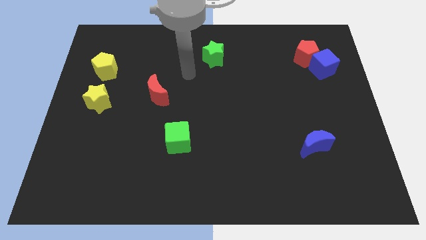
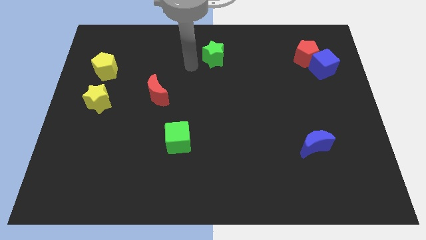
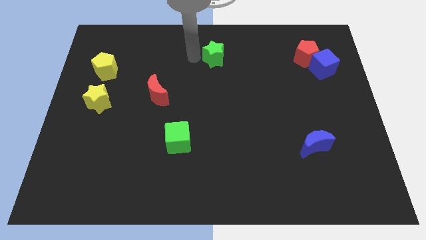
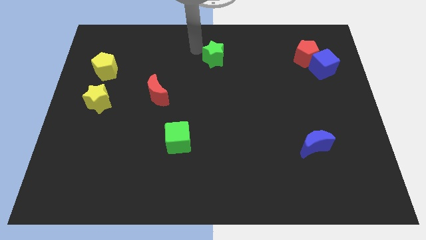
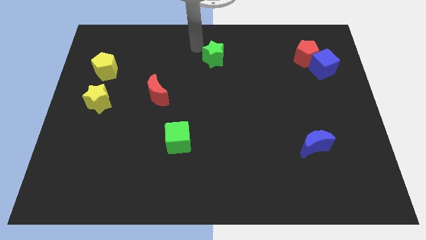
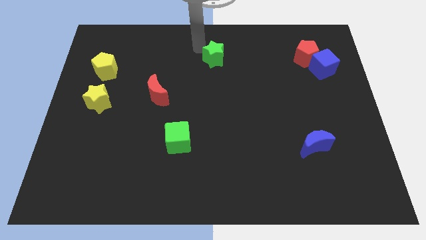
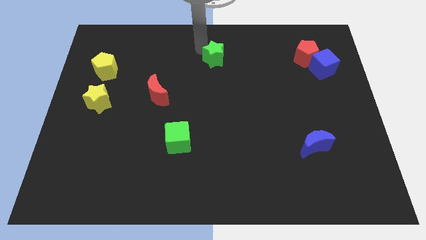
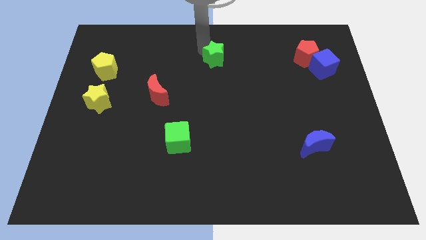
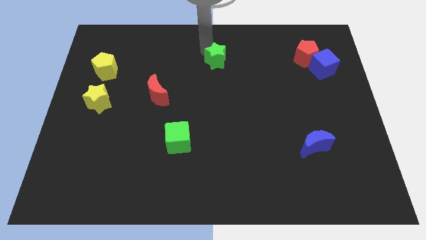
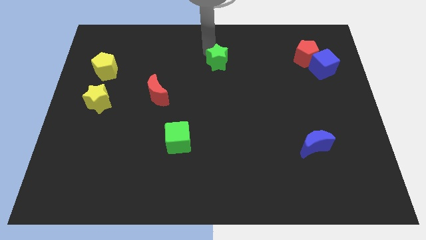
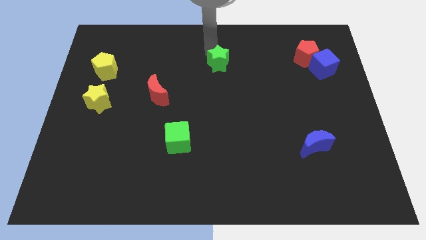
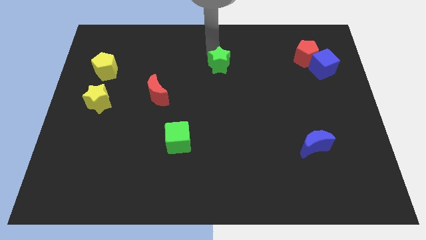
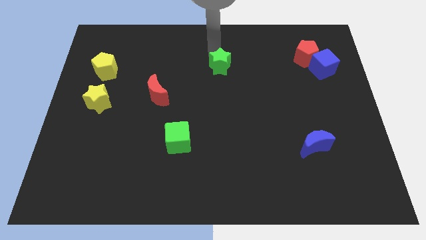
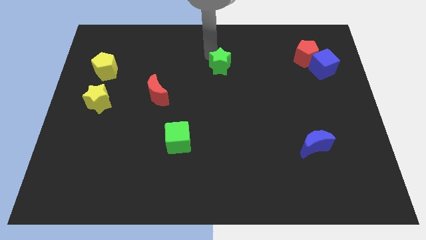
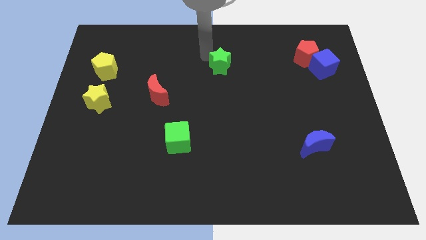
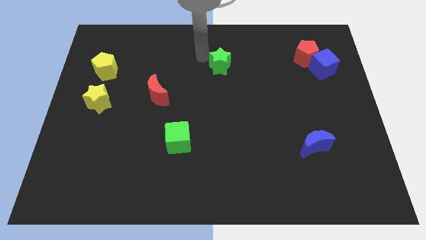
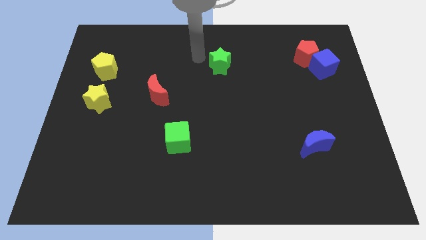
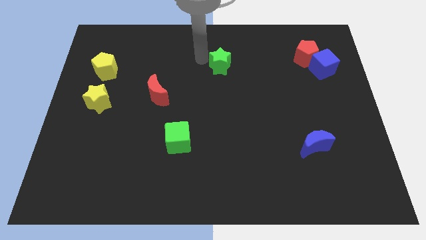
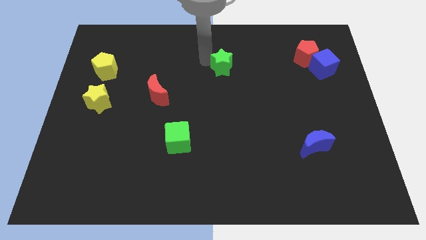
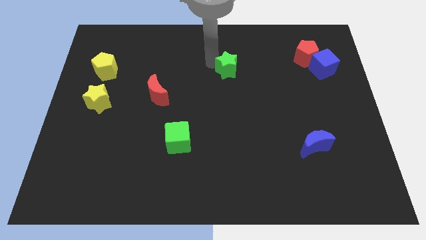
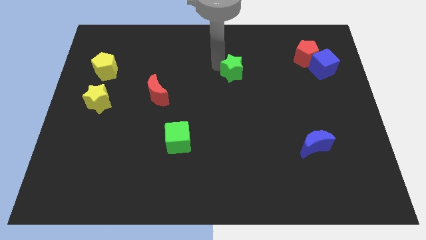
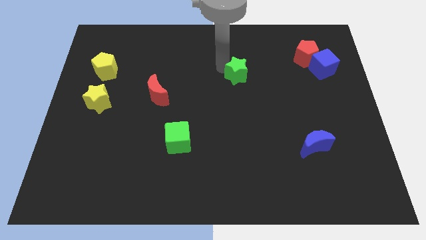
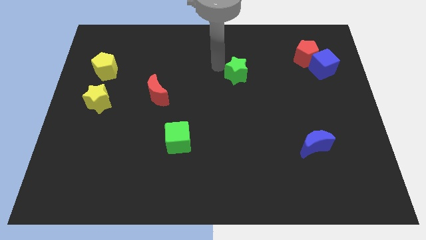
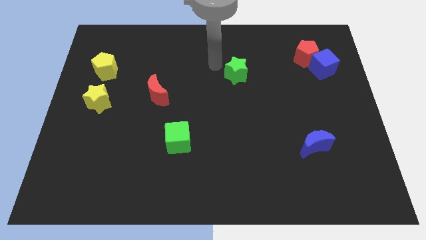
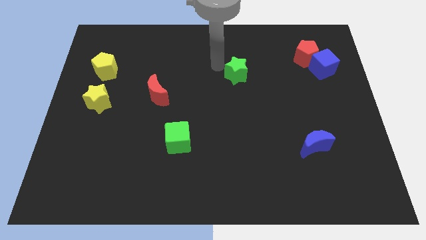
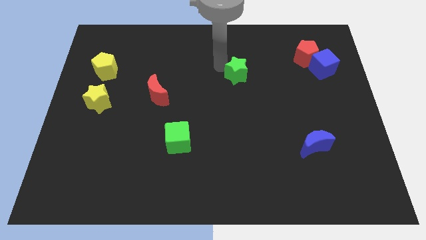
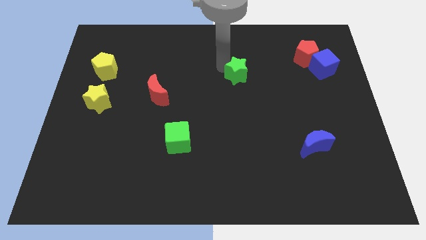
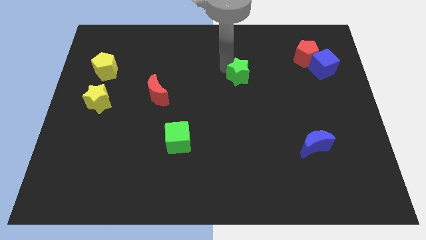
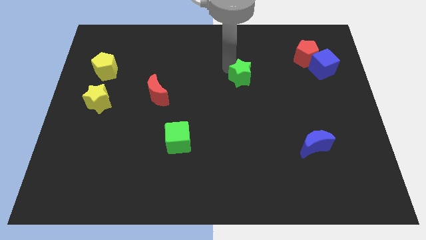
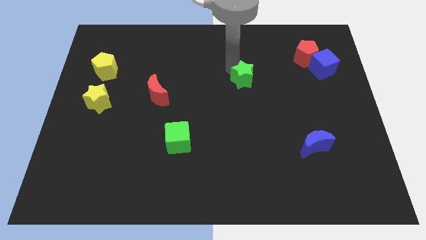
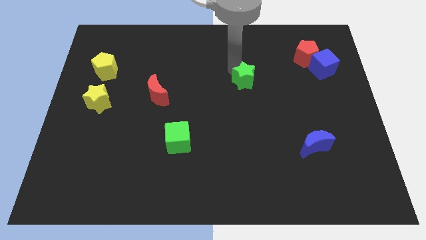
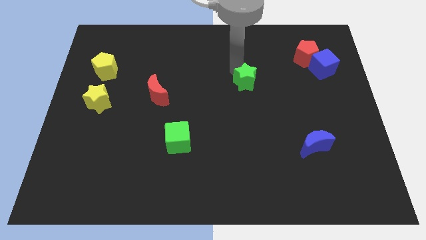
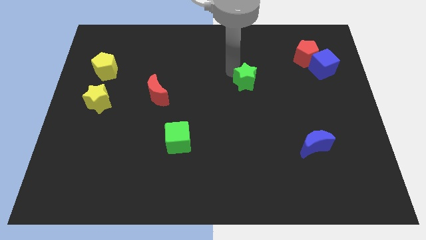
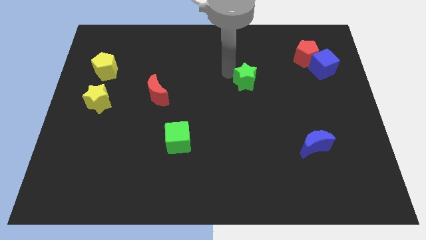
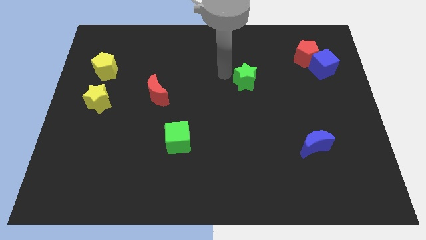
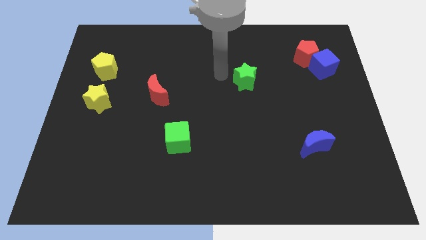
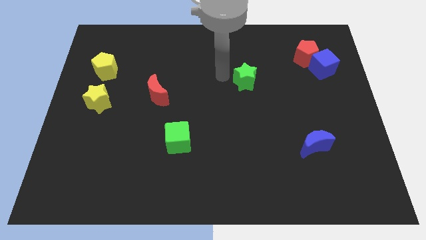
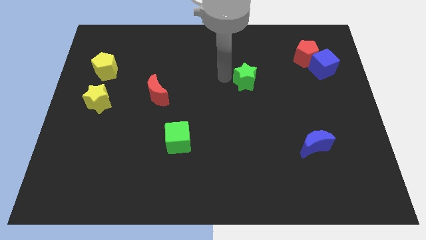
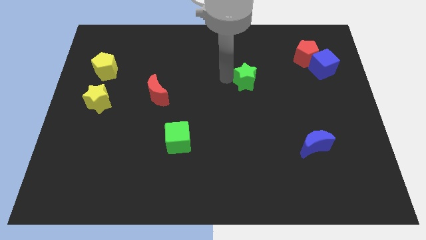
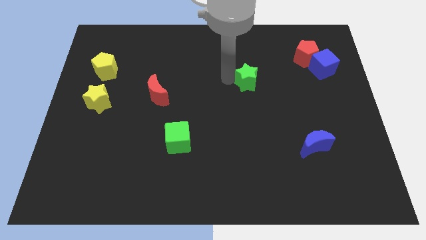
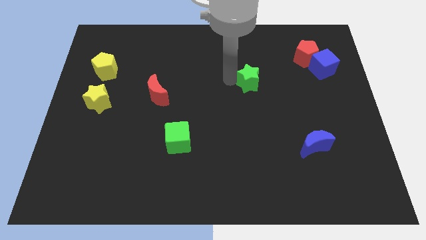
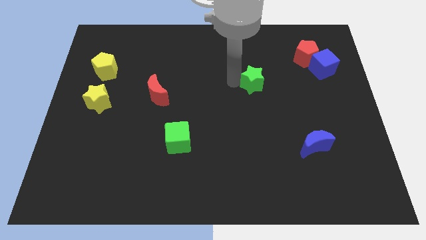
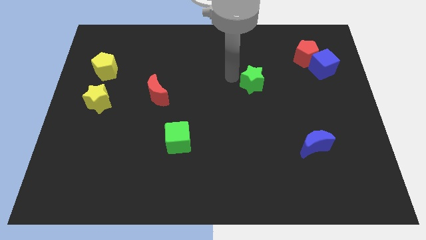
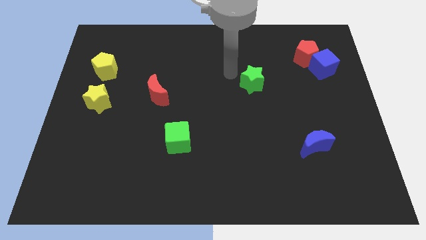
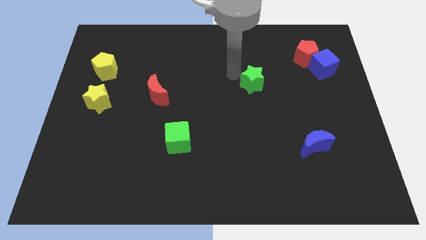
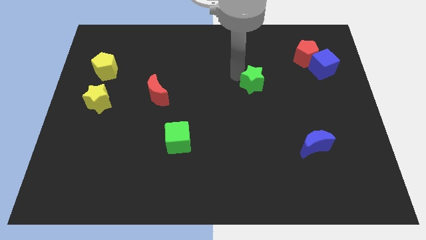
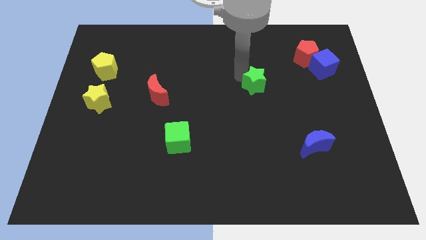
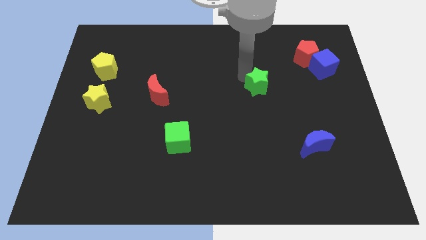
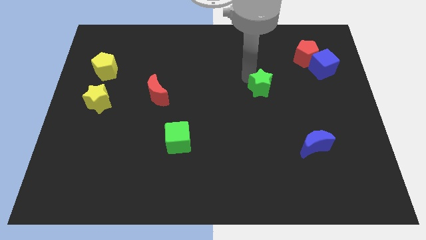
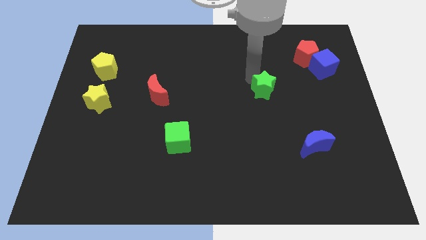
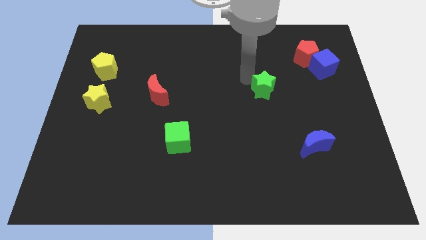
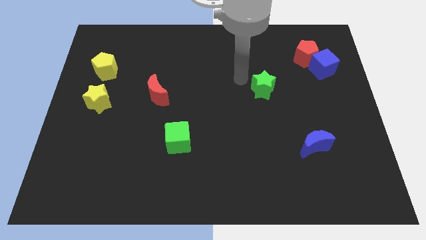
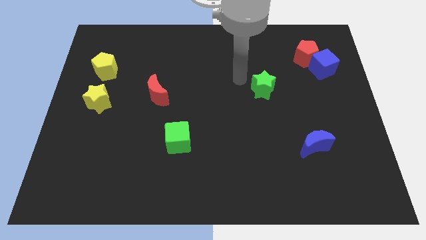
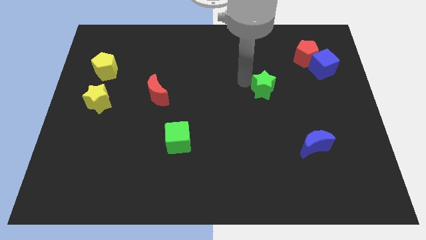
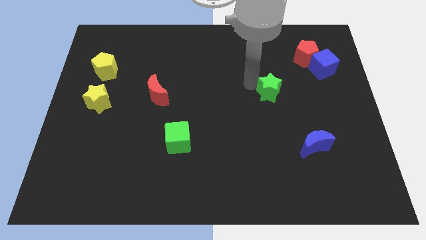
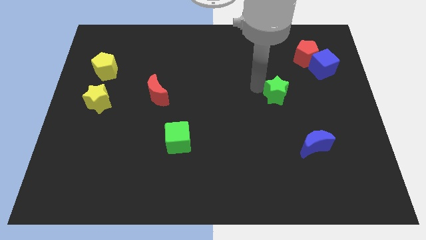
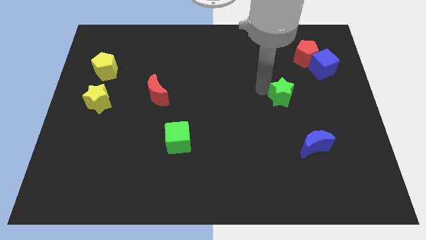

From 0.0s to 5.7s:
slide the green star down and to the right diagonally

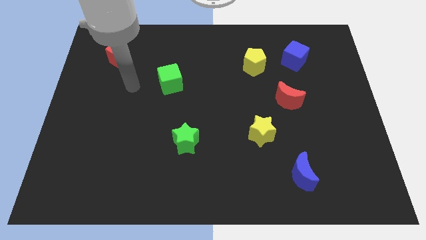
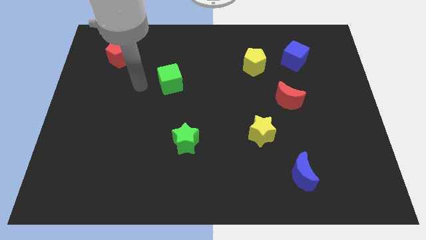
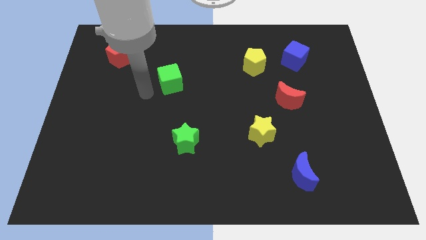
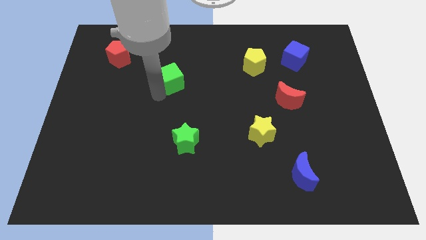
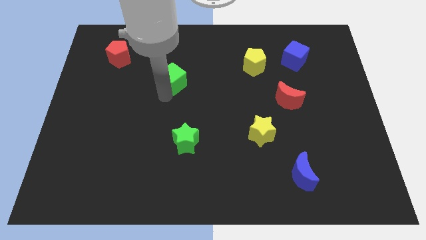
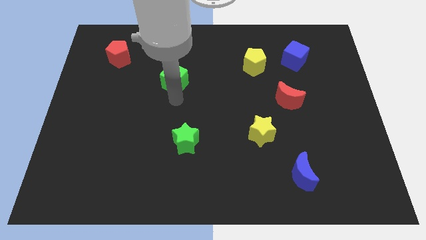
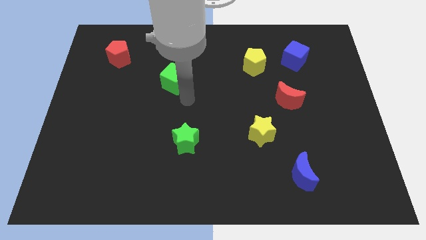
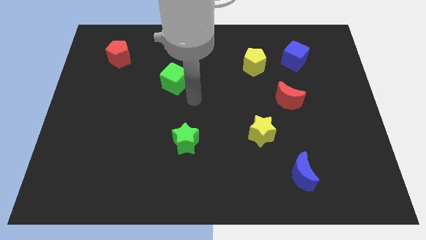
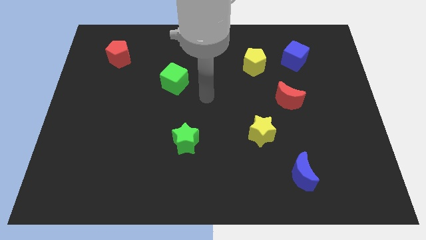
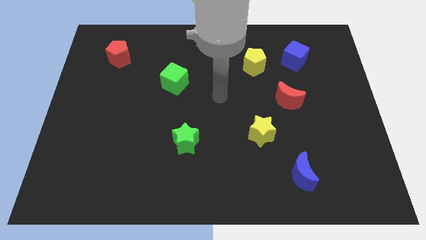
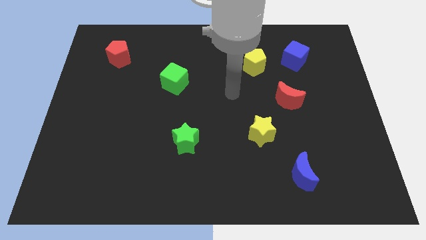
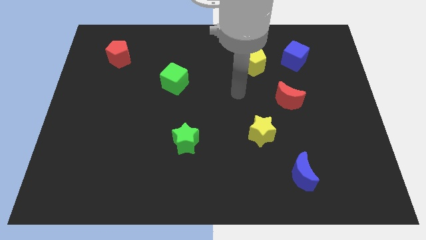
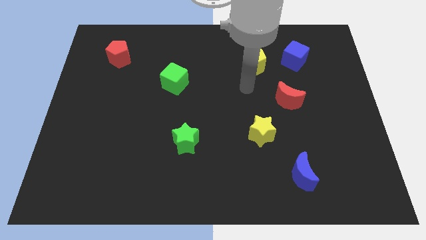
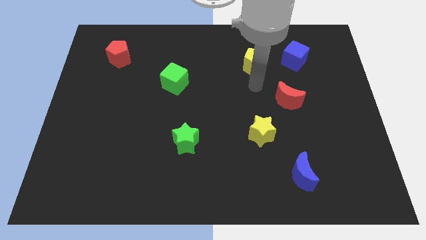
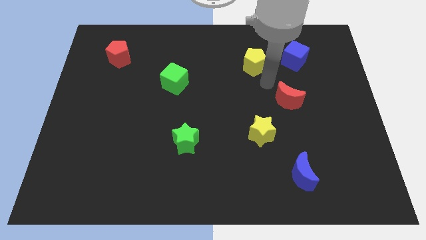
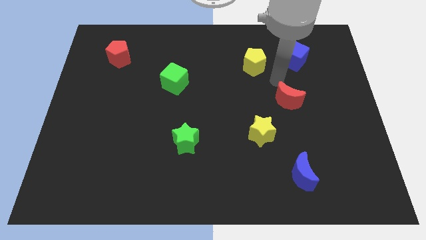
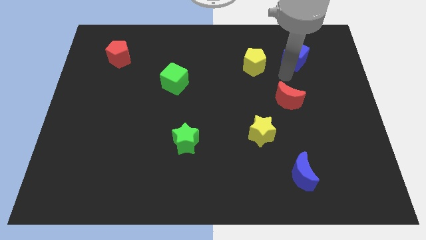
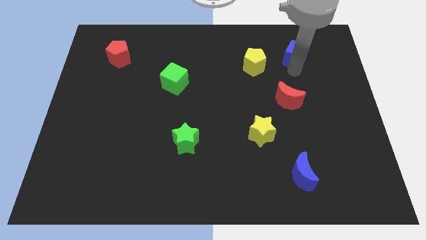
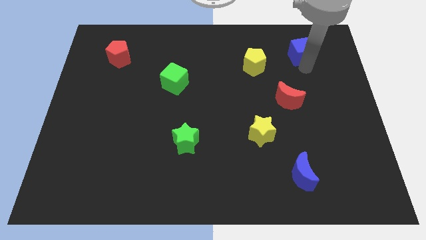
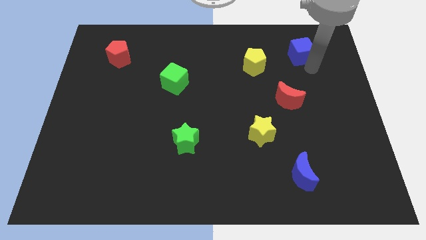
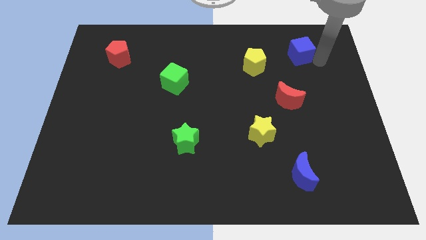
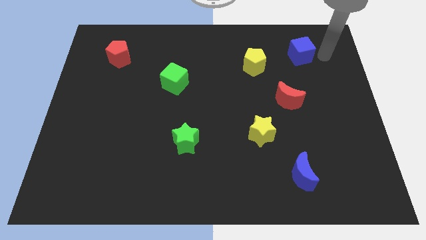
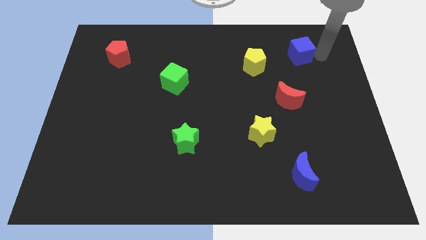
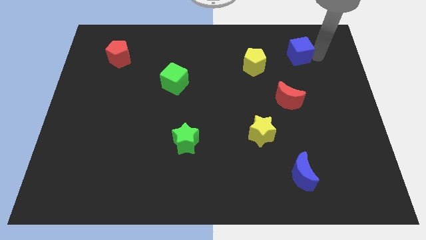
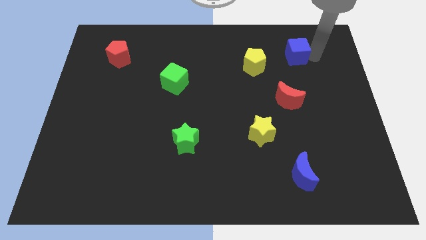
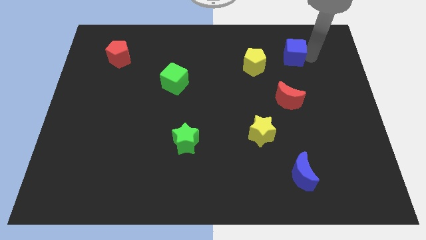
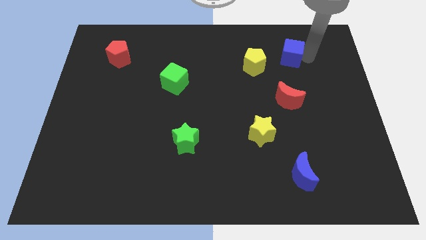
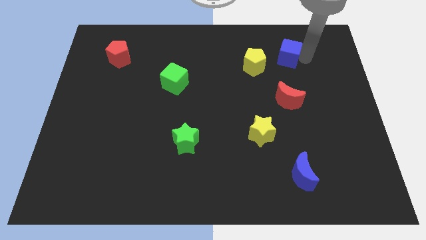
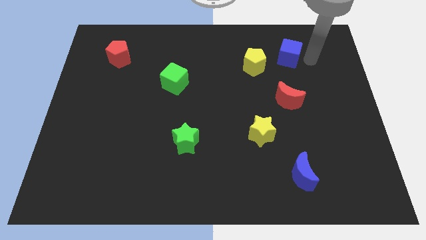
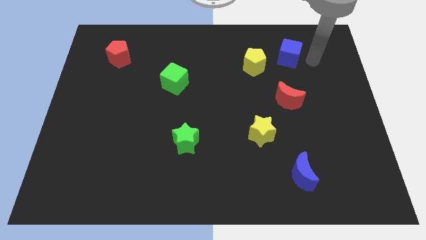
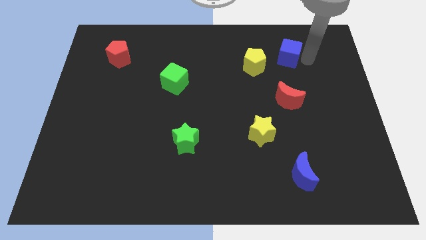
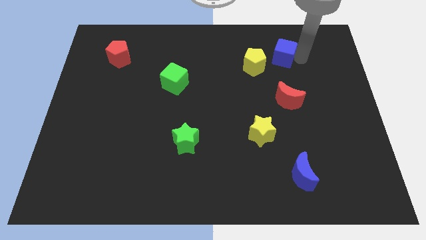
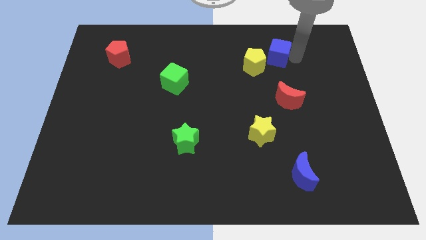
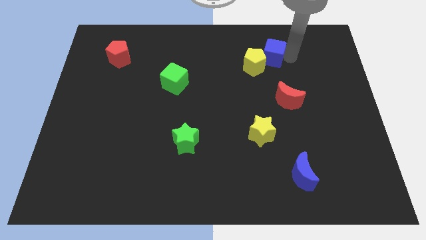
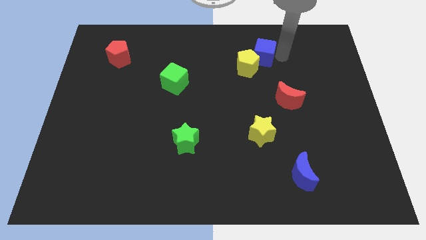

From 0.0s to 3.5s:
push the blue cube to the left somewhat
